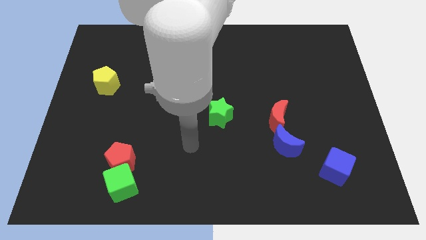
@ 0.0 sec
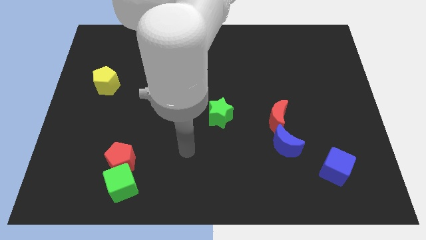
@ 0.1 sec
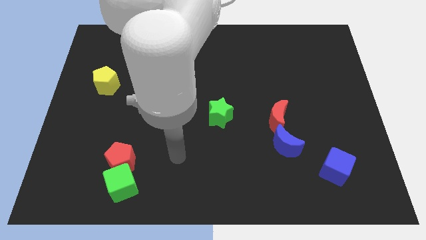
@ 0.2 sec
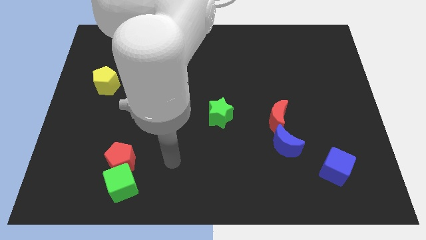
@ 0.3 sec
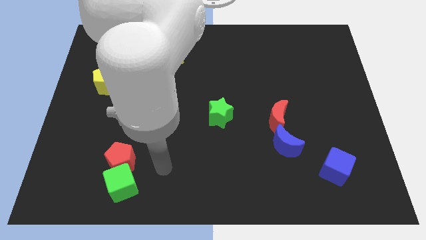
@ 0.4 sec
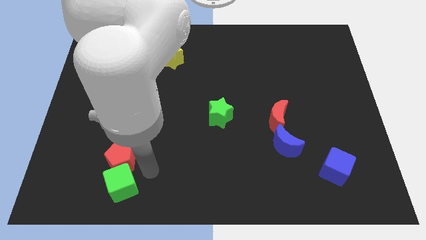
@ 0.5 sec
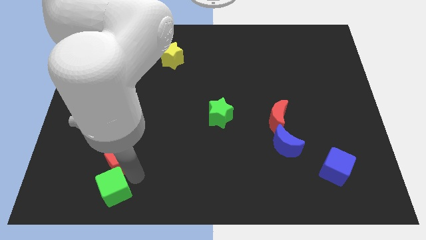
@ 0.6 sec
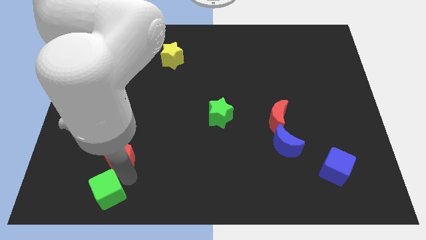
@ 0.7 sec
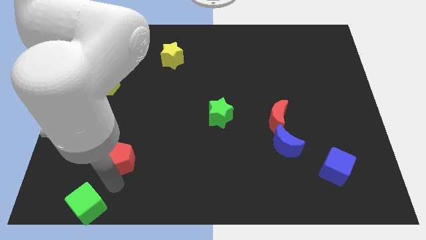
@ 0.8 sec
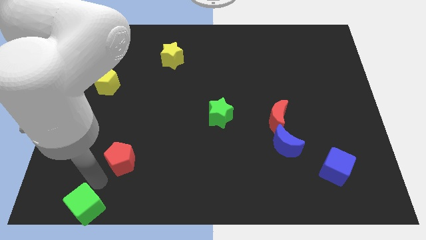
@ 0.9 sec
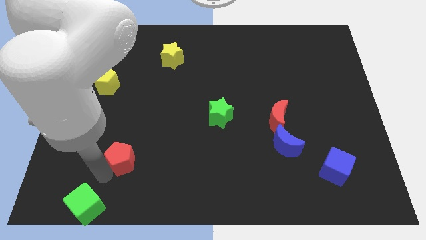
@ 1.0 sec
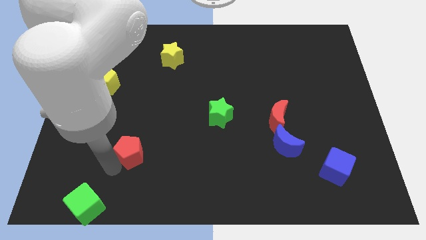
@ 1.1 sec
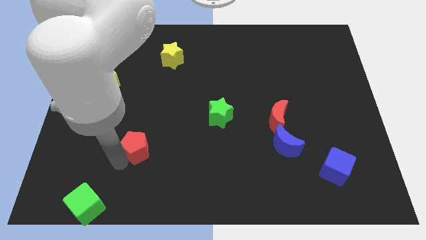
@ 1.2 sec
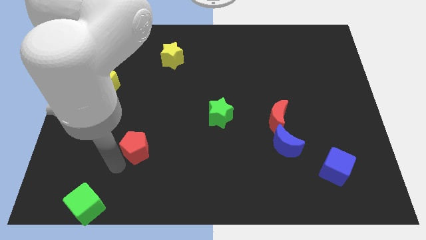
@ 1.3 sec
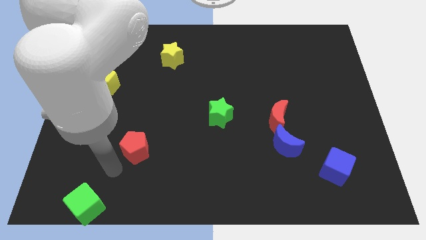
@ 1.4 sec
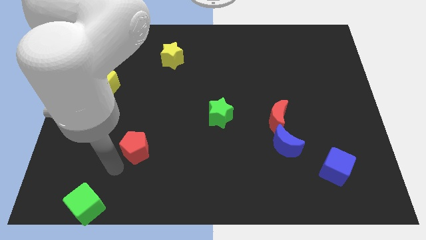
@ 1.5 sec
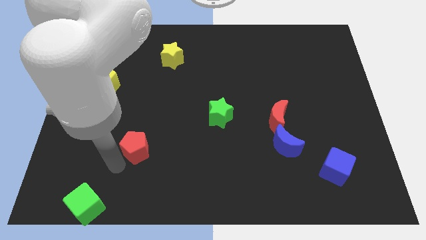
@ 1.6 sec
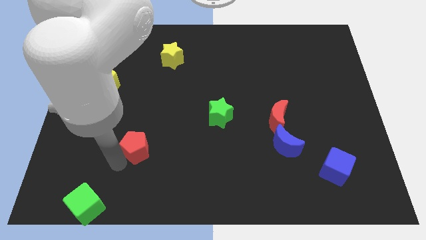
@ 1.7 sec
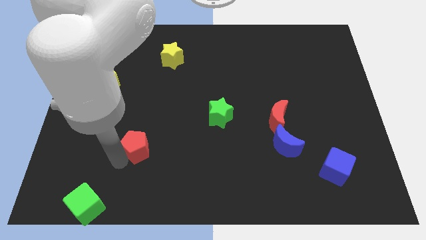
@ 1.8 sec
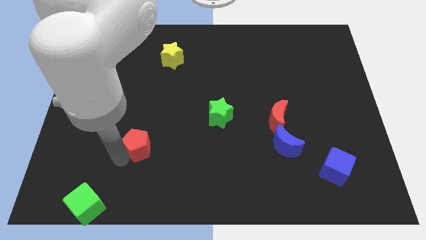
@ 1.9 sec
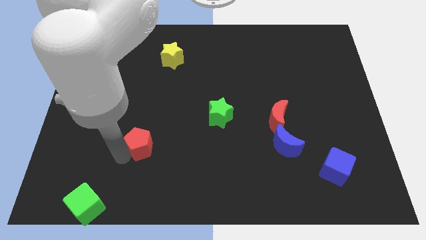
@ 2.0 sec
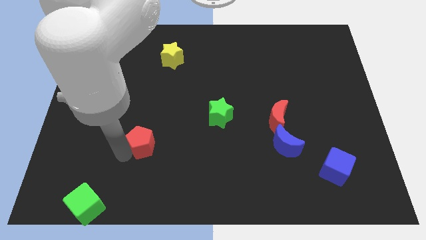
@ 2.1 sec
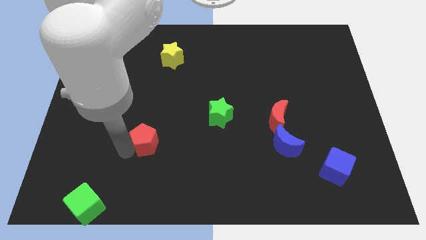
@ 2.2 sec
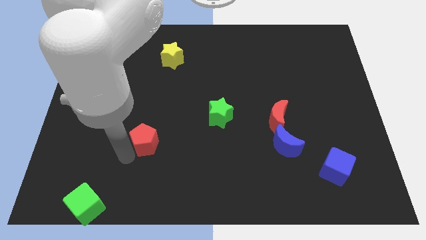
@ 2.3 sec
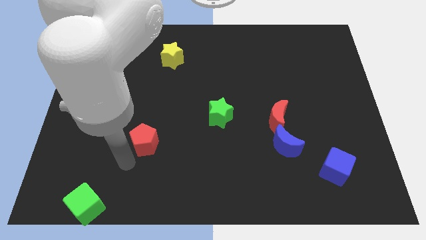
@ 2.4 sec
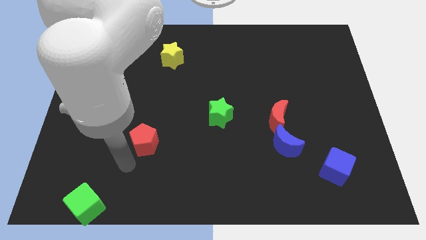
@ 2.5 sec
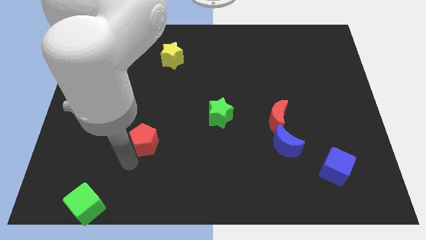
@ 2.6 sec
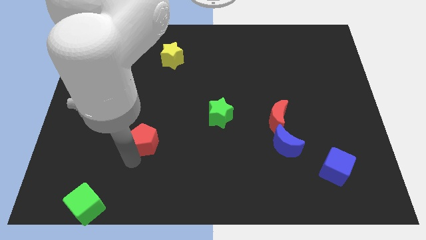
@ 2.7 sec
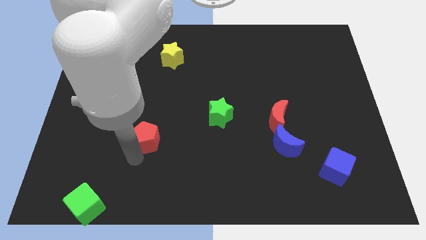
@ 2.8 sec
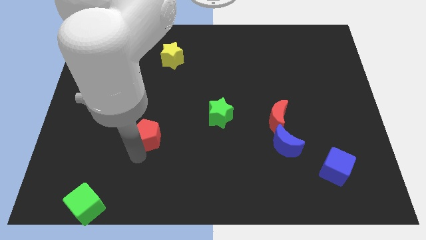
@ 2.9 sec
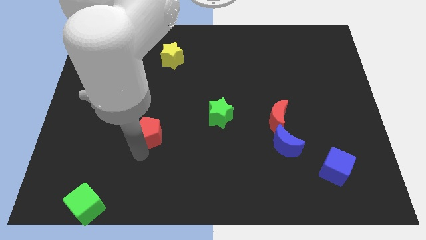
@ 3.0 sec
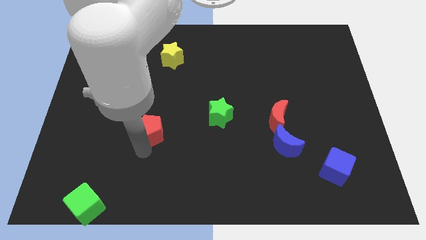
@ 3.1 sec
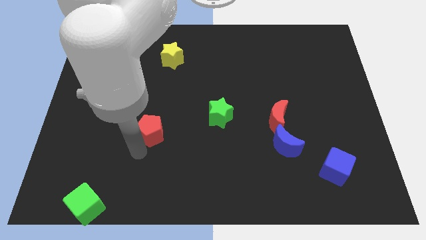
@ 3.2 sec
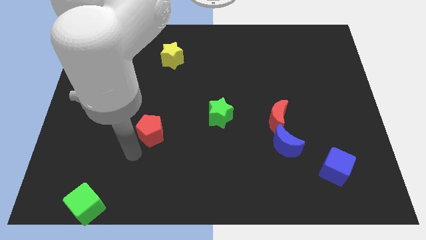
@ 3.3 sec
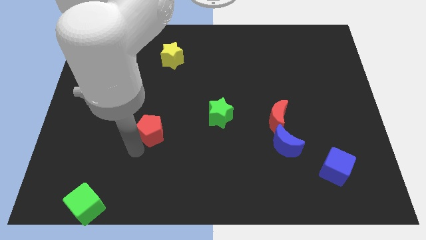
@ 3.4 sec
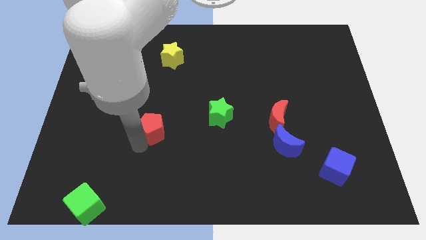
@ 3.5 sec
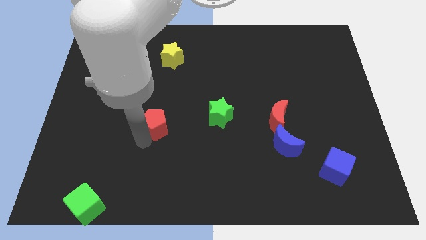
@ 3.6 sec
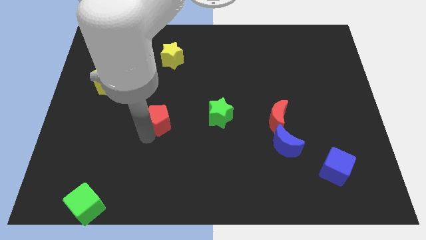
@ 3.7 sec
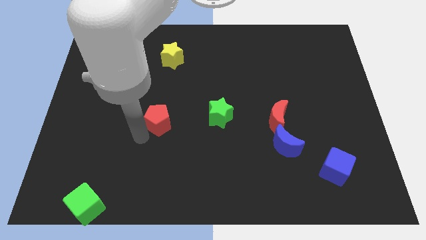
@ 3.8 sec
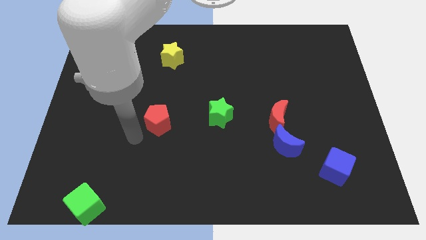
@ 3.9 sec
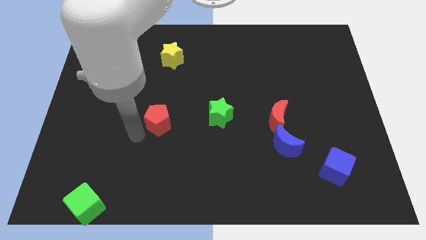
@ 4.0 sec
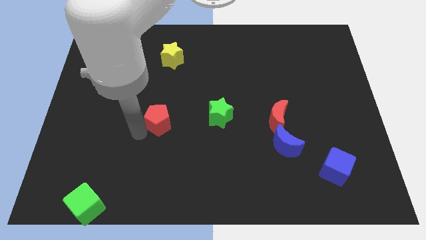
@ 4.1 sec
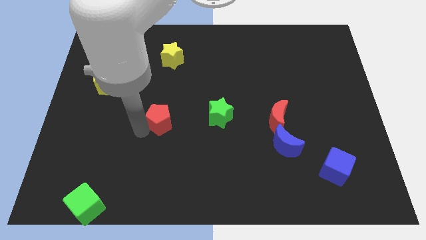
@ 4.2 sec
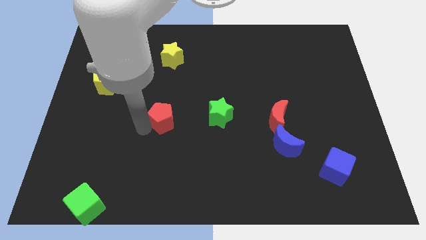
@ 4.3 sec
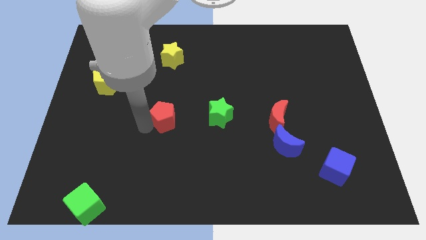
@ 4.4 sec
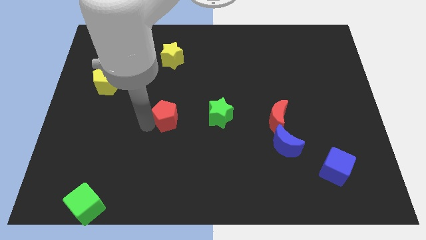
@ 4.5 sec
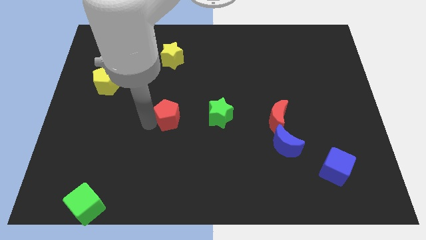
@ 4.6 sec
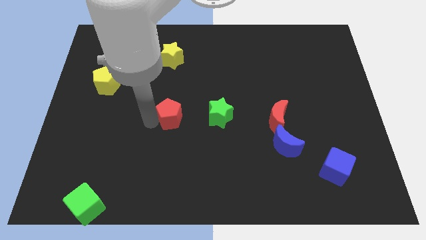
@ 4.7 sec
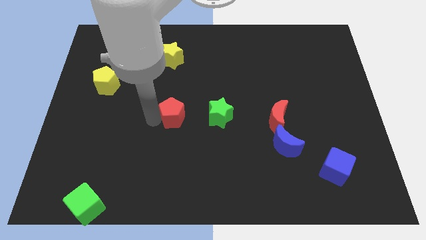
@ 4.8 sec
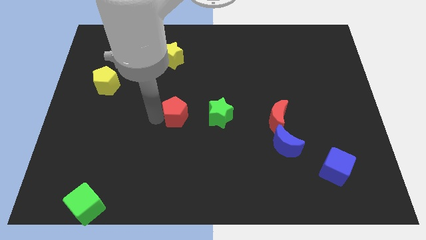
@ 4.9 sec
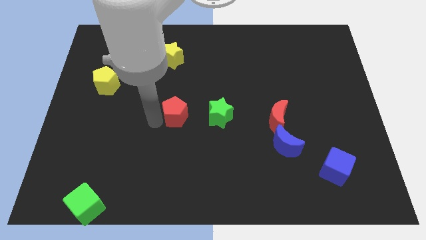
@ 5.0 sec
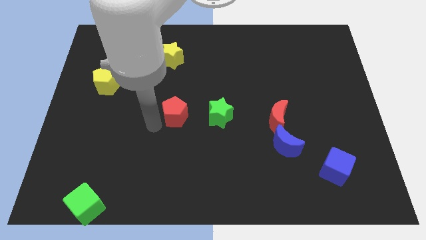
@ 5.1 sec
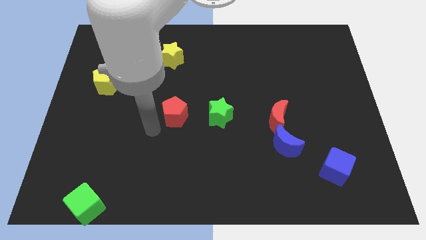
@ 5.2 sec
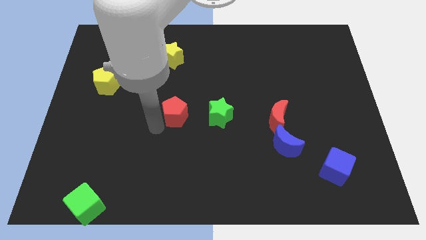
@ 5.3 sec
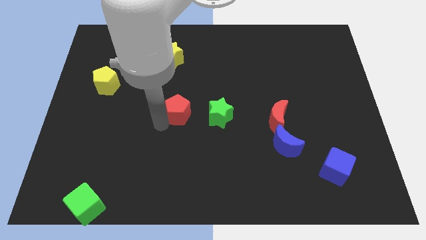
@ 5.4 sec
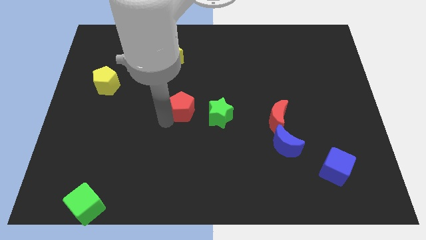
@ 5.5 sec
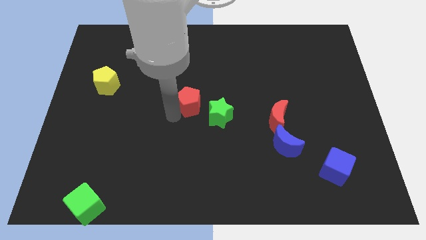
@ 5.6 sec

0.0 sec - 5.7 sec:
move the red pentagon upwards and then right

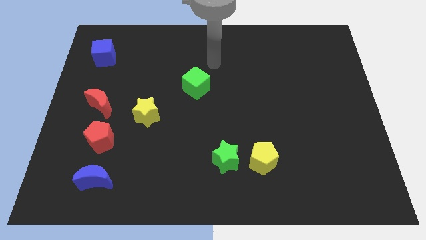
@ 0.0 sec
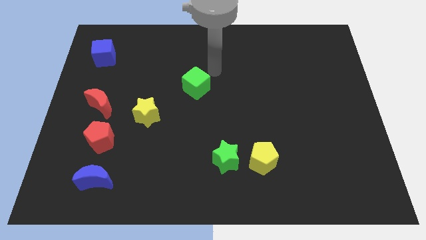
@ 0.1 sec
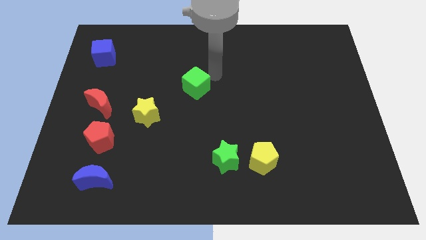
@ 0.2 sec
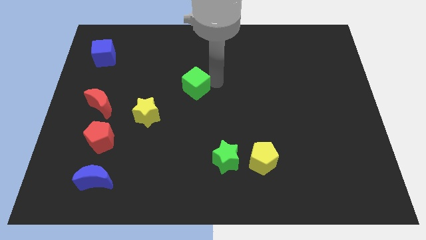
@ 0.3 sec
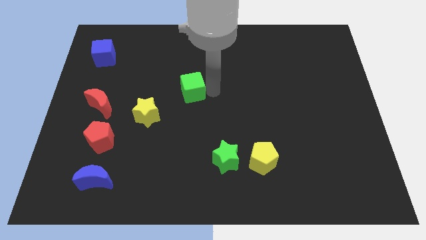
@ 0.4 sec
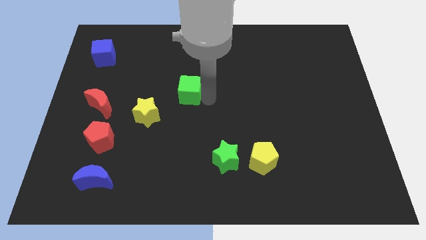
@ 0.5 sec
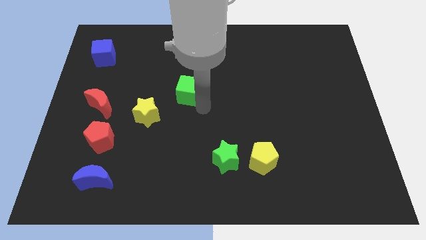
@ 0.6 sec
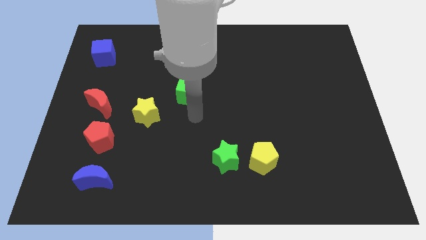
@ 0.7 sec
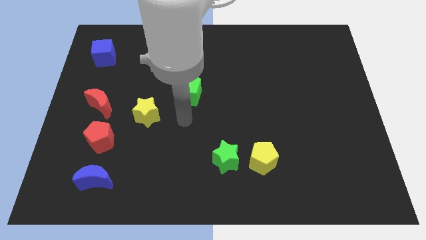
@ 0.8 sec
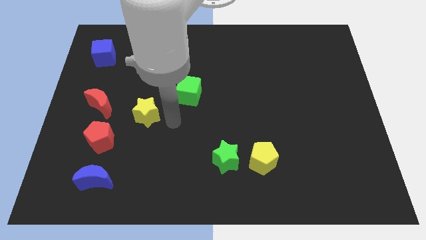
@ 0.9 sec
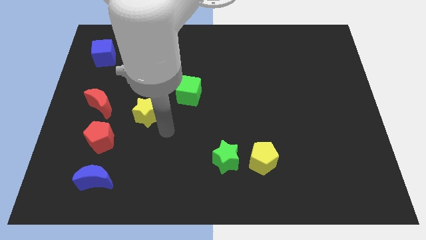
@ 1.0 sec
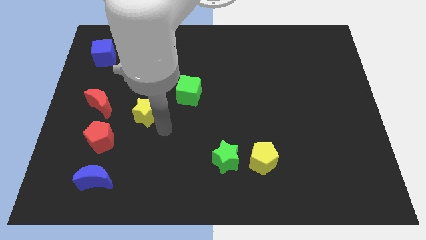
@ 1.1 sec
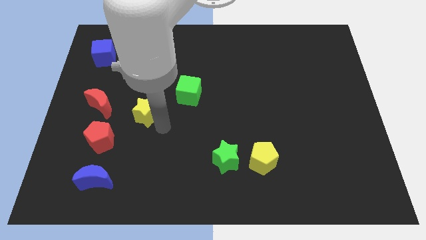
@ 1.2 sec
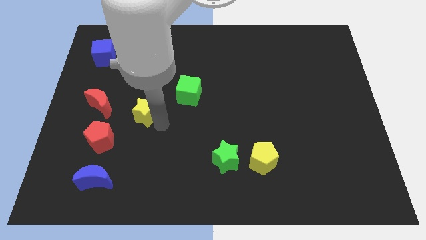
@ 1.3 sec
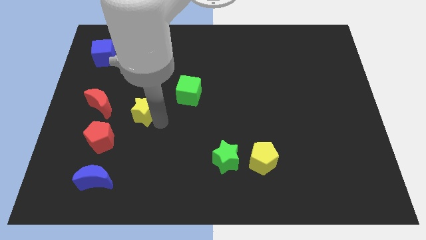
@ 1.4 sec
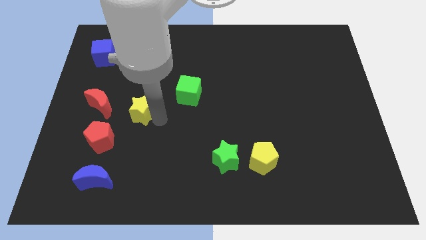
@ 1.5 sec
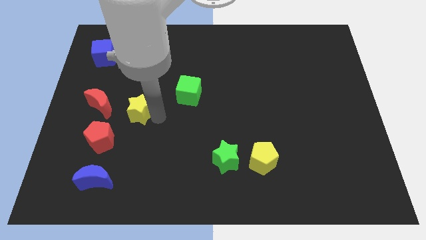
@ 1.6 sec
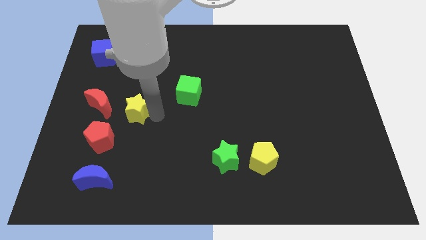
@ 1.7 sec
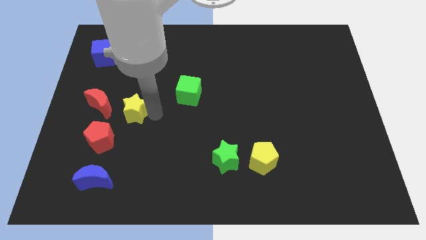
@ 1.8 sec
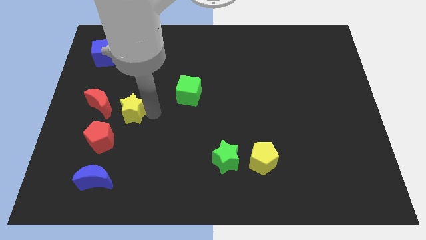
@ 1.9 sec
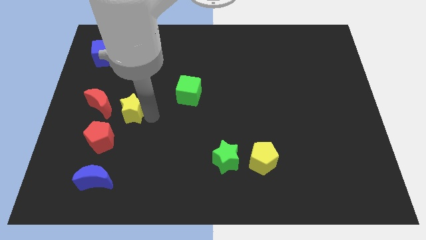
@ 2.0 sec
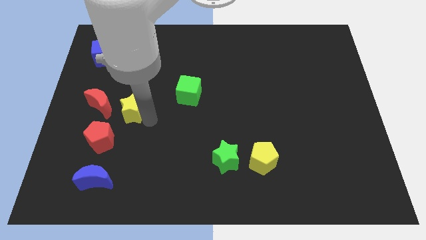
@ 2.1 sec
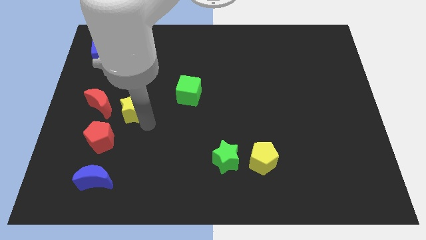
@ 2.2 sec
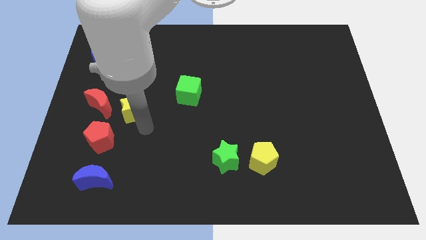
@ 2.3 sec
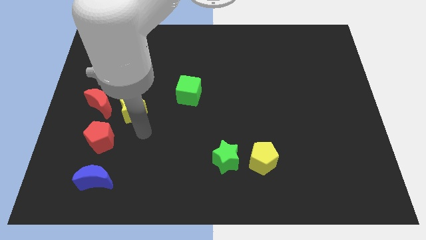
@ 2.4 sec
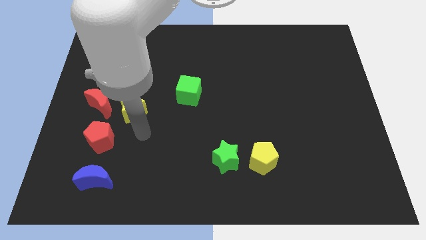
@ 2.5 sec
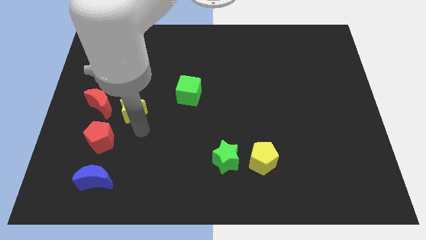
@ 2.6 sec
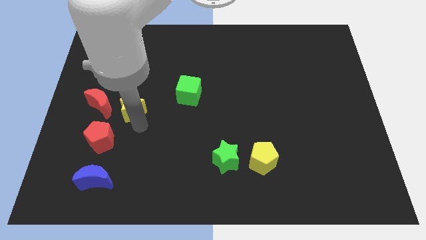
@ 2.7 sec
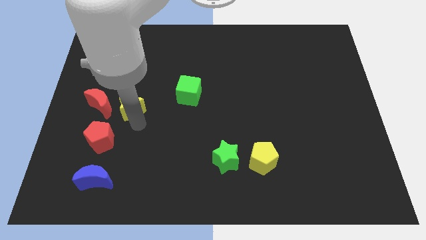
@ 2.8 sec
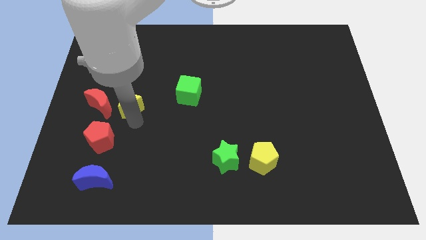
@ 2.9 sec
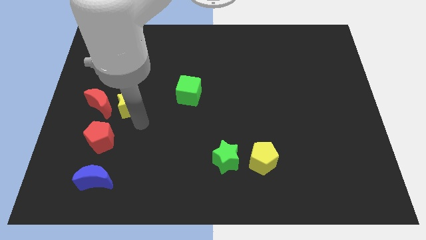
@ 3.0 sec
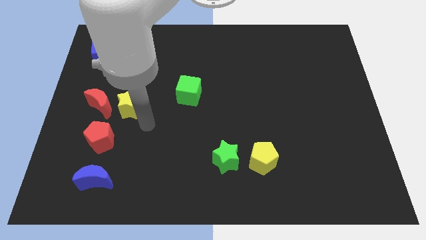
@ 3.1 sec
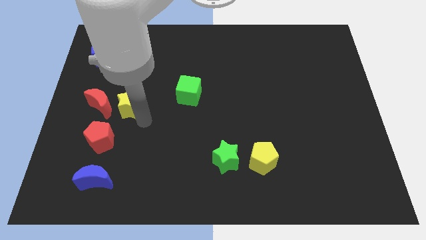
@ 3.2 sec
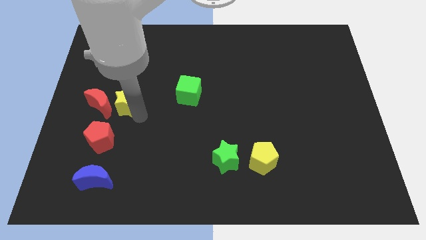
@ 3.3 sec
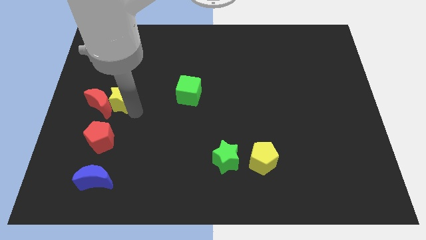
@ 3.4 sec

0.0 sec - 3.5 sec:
slightly move the yellow star upwards and left
